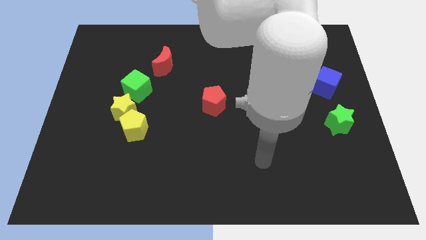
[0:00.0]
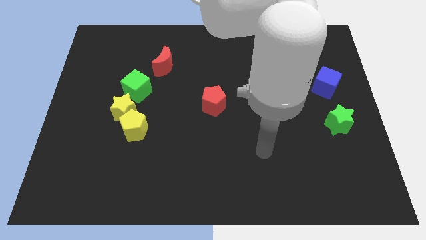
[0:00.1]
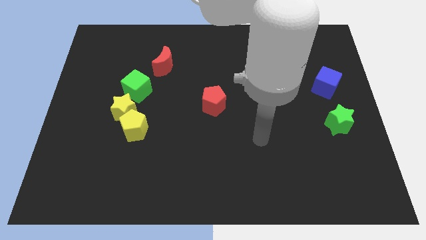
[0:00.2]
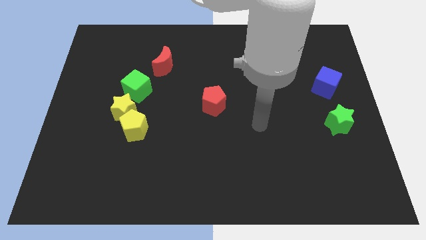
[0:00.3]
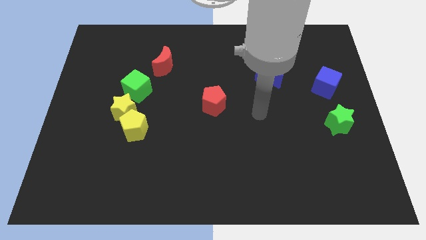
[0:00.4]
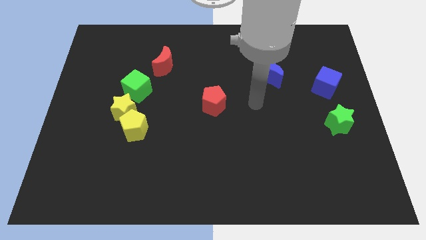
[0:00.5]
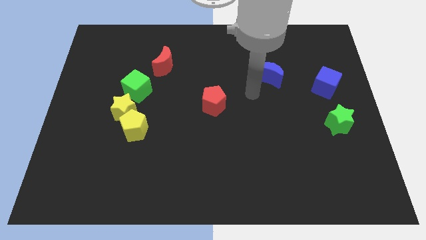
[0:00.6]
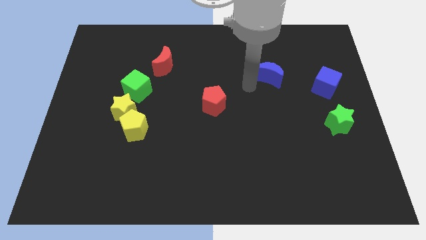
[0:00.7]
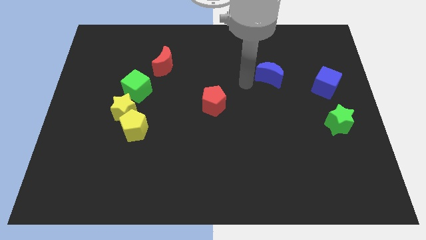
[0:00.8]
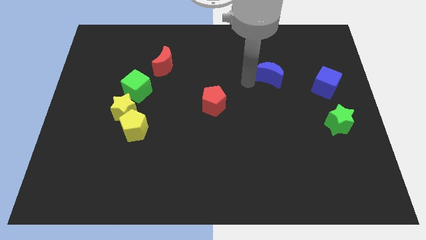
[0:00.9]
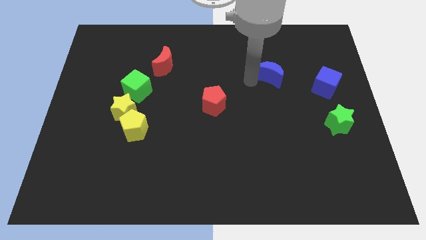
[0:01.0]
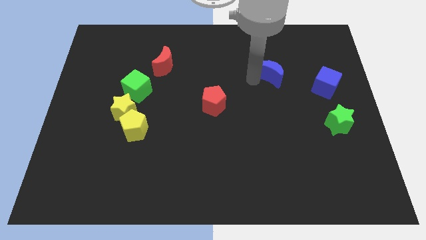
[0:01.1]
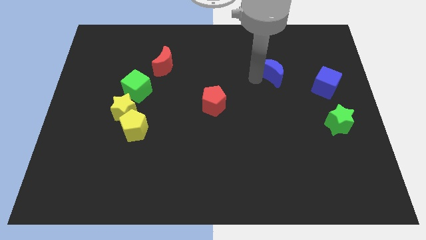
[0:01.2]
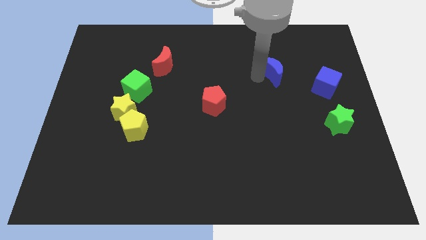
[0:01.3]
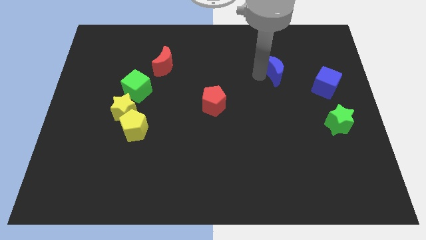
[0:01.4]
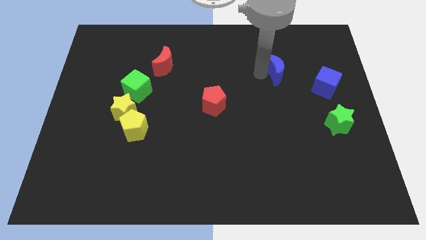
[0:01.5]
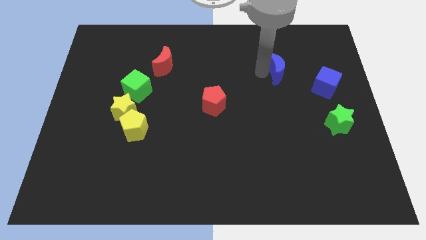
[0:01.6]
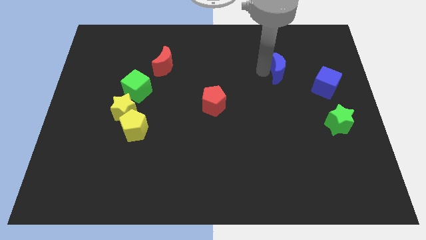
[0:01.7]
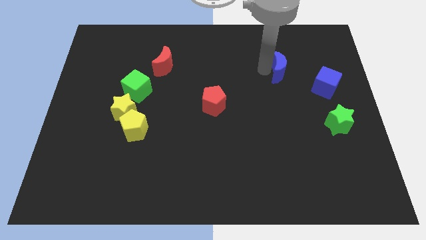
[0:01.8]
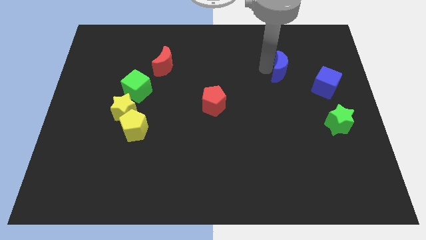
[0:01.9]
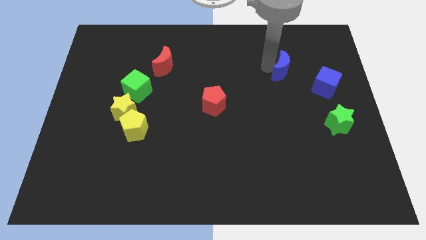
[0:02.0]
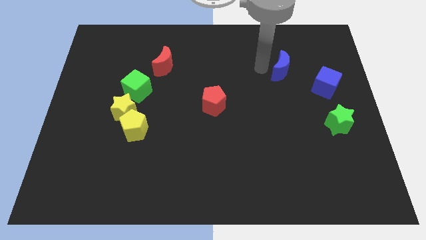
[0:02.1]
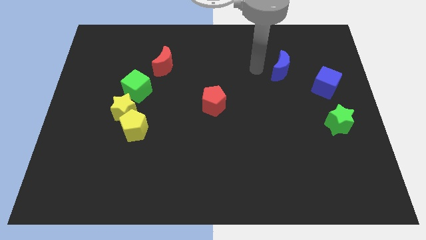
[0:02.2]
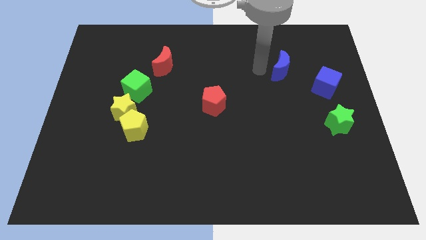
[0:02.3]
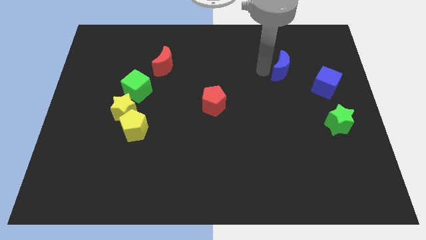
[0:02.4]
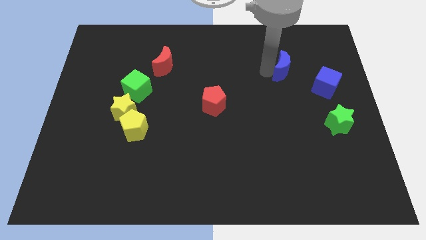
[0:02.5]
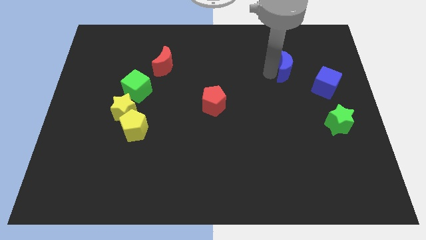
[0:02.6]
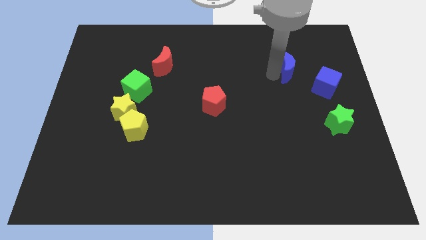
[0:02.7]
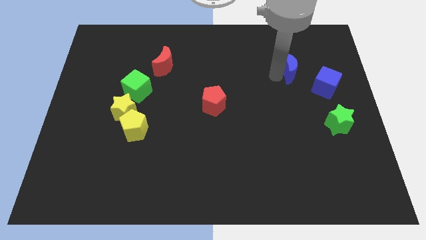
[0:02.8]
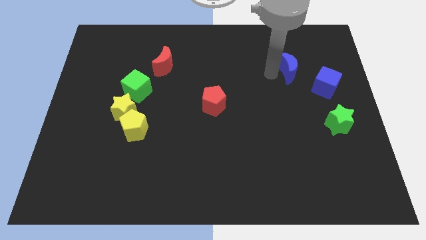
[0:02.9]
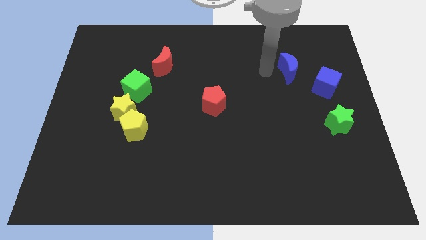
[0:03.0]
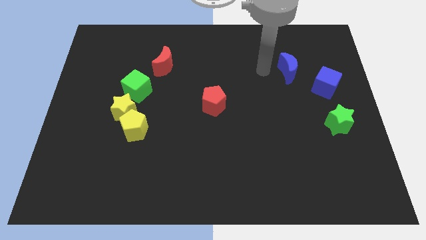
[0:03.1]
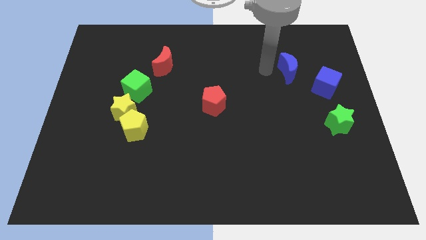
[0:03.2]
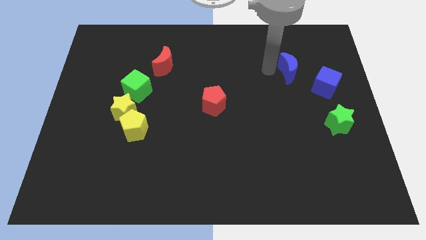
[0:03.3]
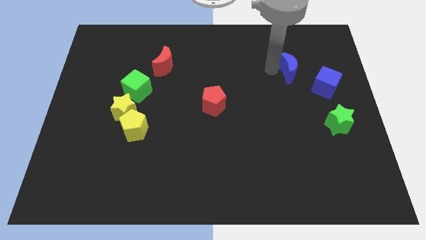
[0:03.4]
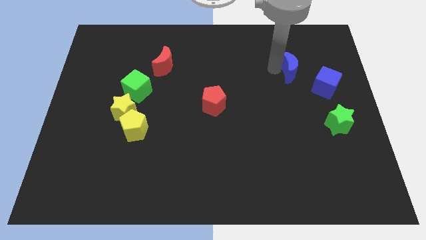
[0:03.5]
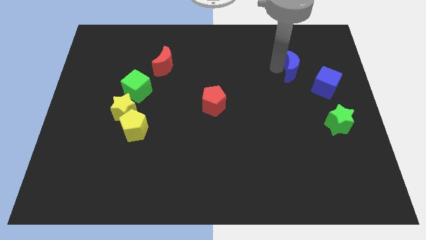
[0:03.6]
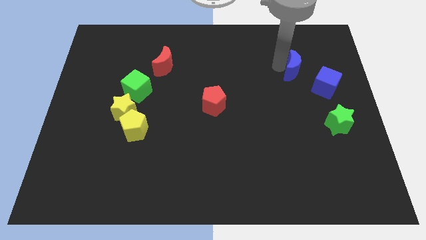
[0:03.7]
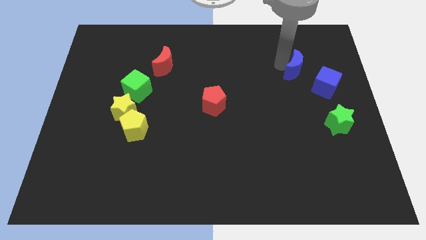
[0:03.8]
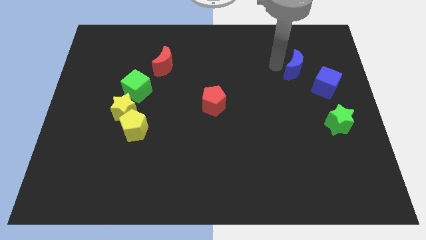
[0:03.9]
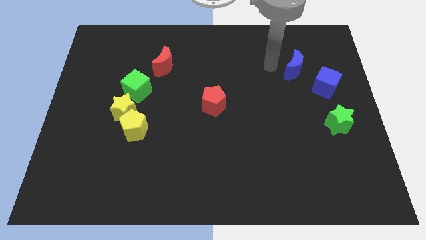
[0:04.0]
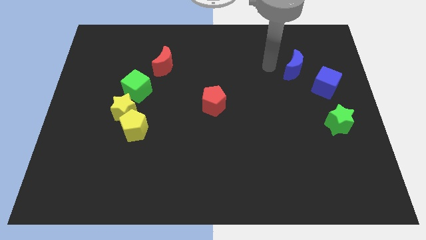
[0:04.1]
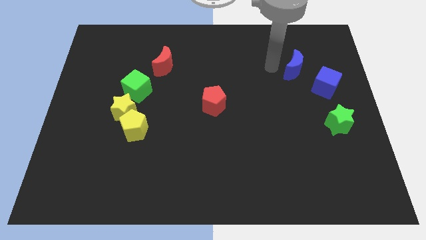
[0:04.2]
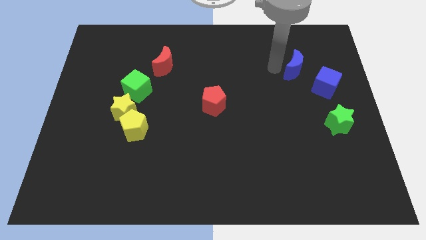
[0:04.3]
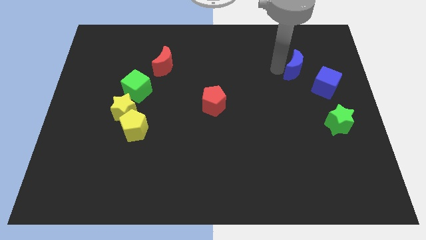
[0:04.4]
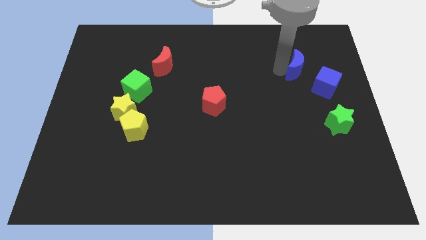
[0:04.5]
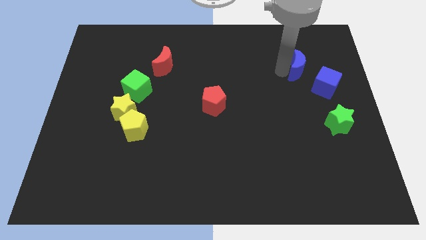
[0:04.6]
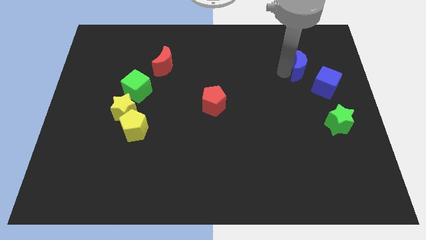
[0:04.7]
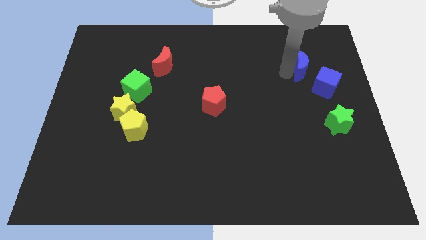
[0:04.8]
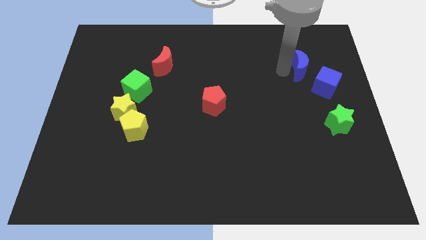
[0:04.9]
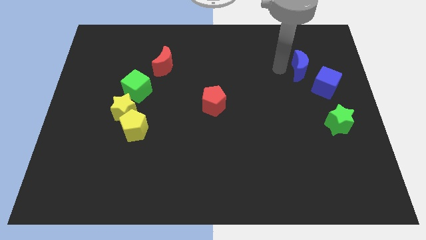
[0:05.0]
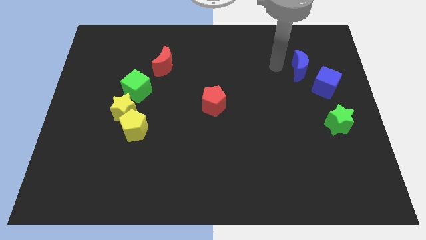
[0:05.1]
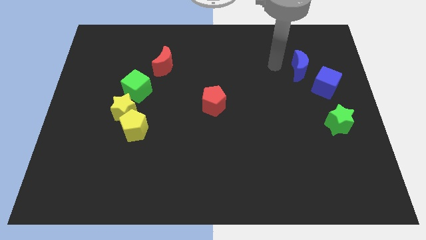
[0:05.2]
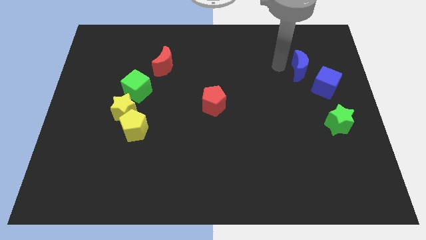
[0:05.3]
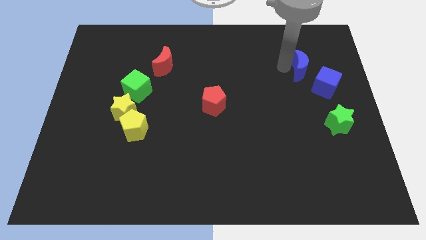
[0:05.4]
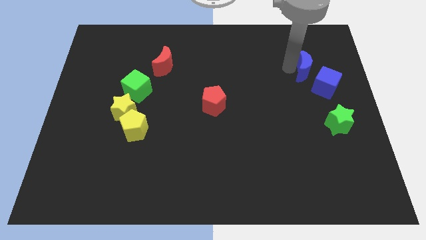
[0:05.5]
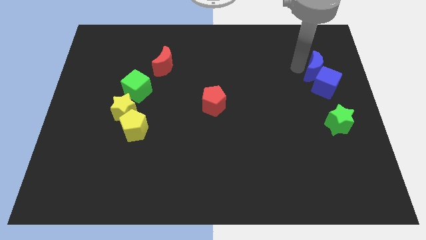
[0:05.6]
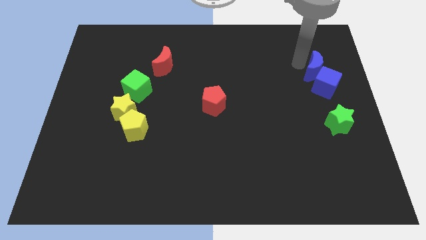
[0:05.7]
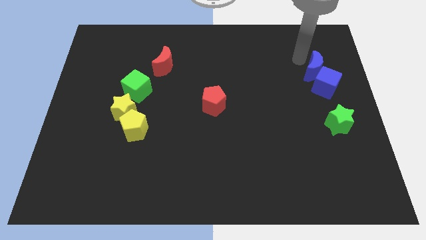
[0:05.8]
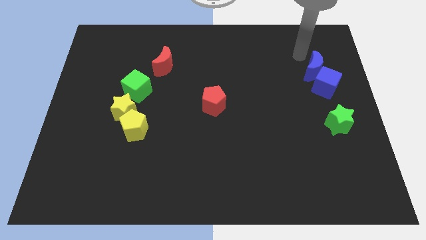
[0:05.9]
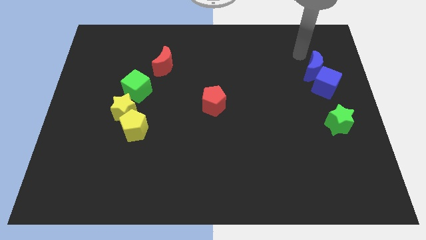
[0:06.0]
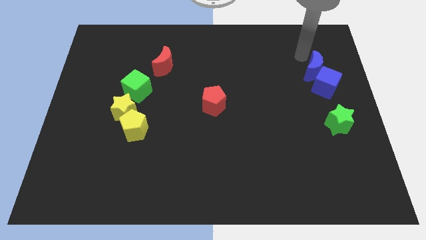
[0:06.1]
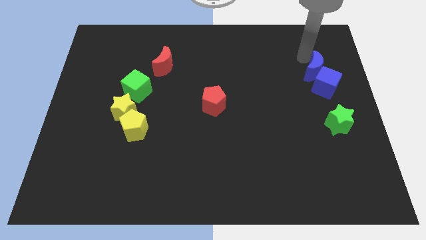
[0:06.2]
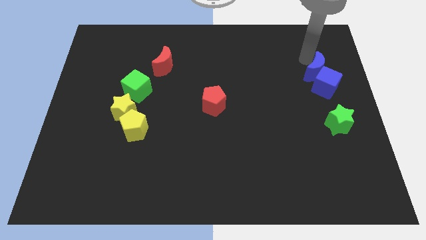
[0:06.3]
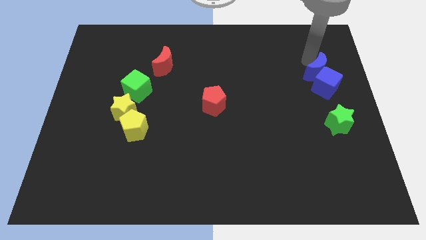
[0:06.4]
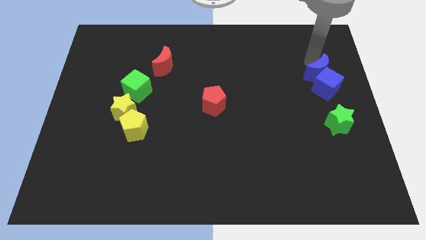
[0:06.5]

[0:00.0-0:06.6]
put the blue moon to the top of the green star

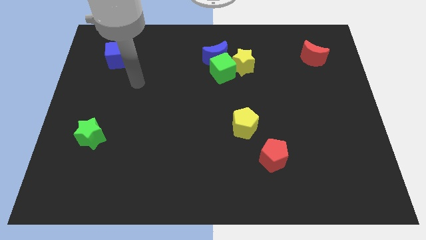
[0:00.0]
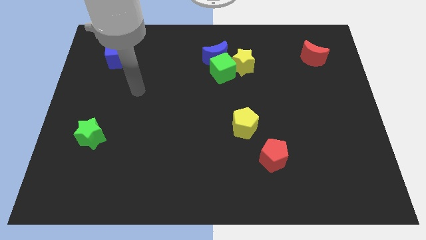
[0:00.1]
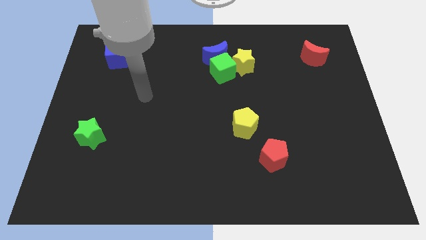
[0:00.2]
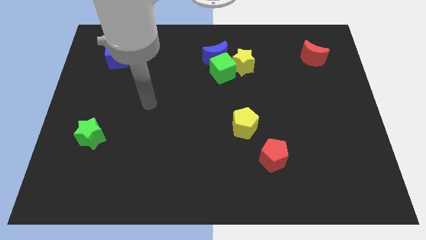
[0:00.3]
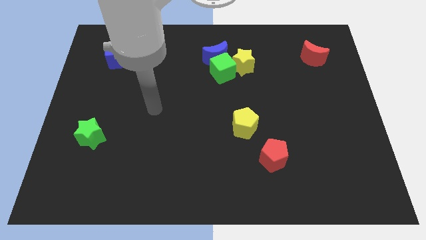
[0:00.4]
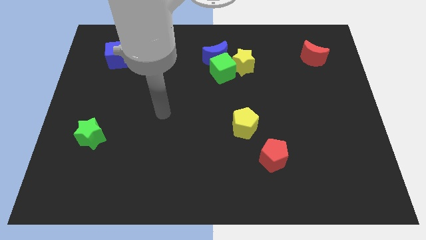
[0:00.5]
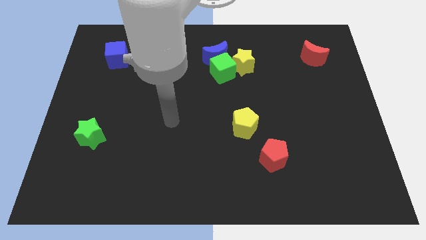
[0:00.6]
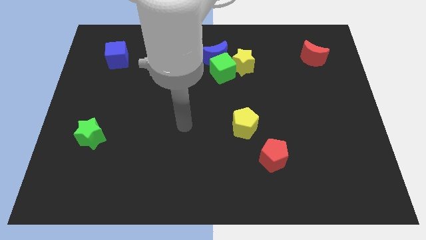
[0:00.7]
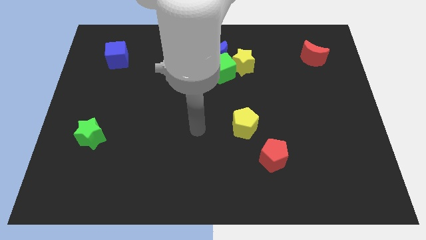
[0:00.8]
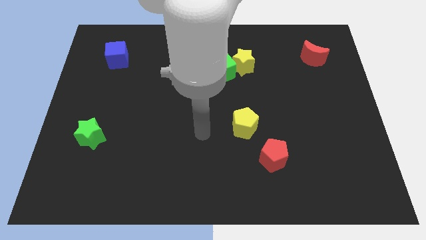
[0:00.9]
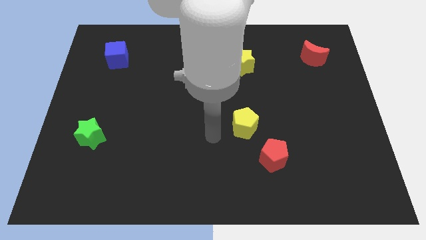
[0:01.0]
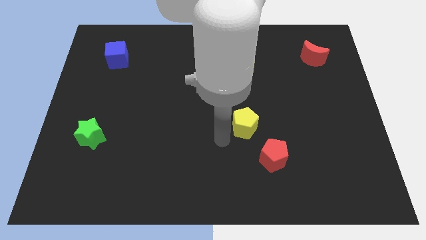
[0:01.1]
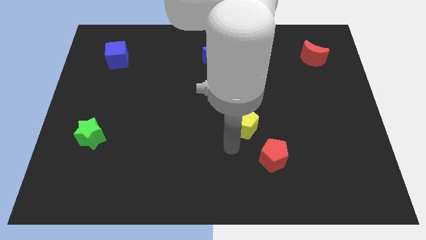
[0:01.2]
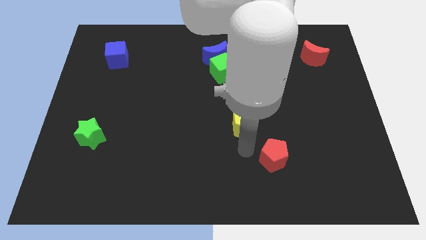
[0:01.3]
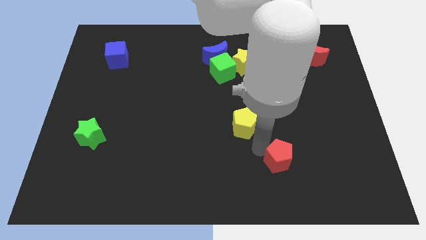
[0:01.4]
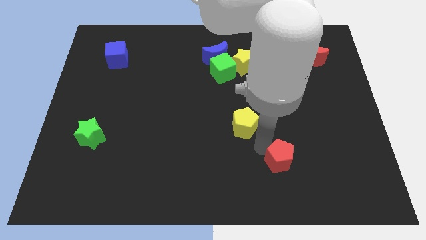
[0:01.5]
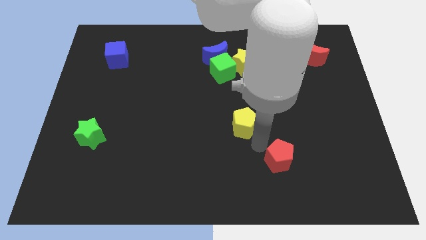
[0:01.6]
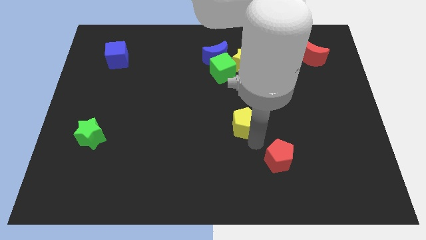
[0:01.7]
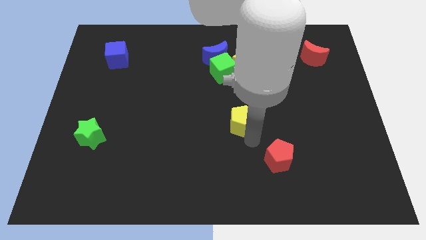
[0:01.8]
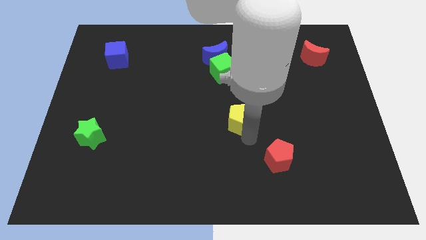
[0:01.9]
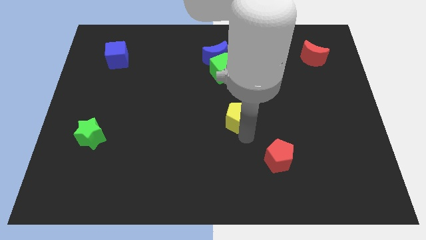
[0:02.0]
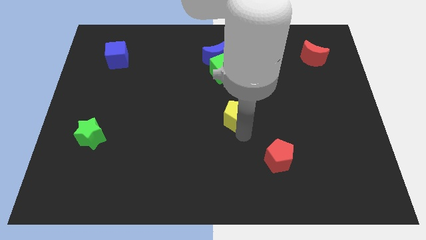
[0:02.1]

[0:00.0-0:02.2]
put the yellow pentagon to the bottom of the green cube
